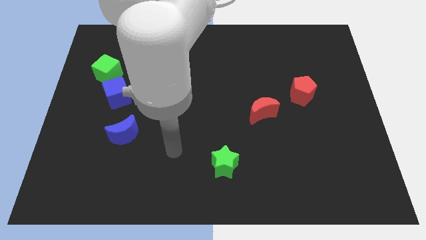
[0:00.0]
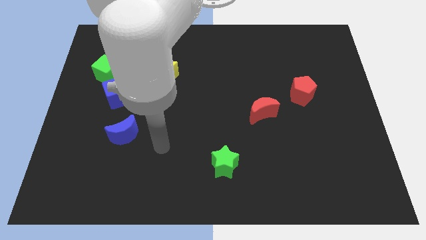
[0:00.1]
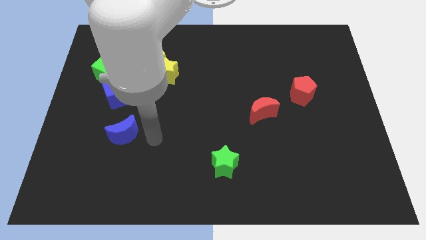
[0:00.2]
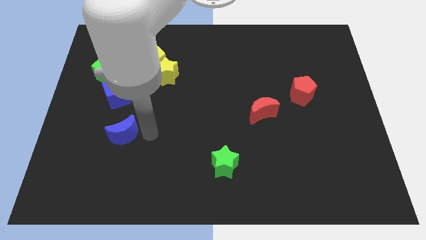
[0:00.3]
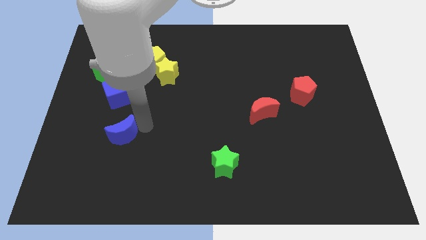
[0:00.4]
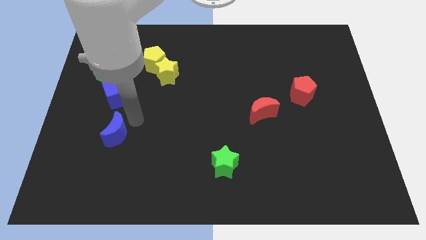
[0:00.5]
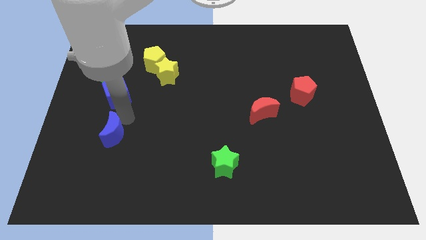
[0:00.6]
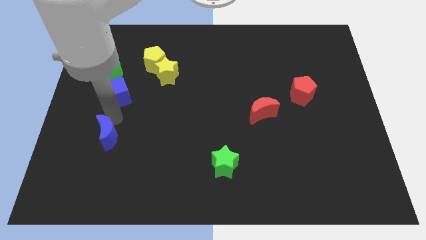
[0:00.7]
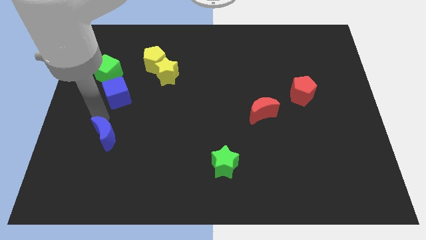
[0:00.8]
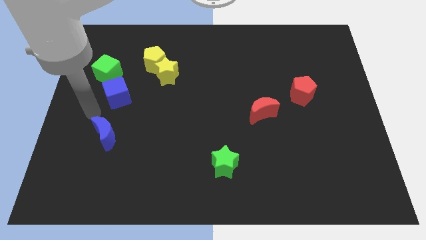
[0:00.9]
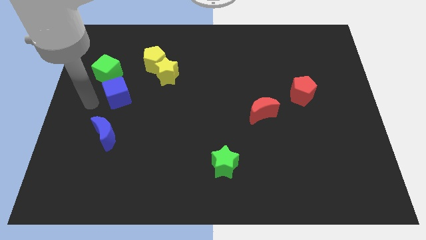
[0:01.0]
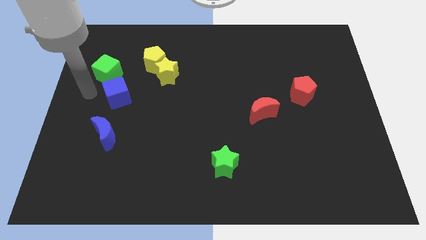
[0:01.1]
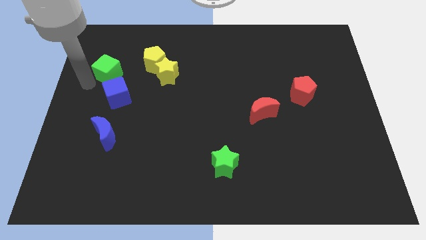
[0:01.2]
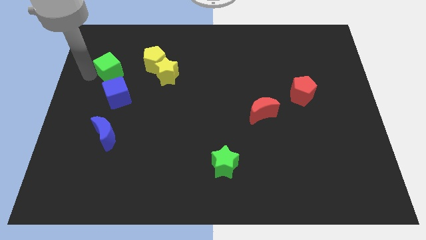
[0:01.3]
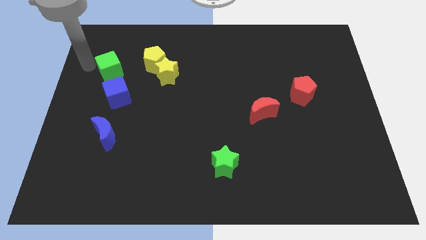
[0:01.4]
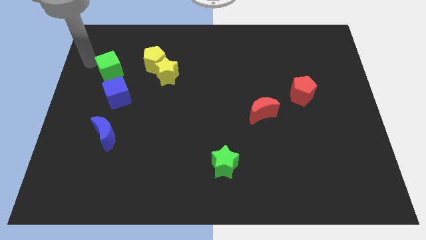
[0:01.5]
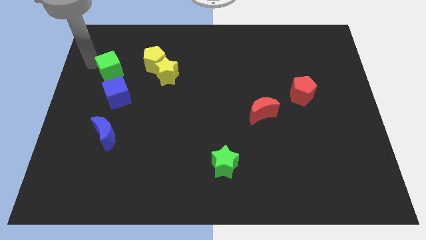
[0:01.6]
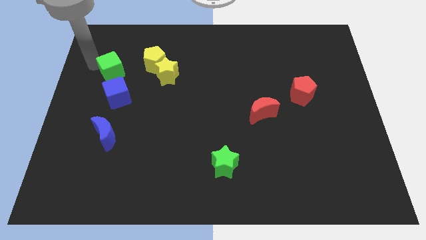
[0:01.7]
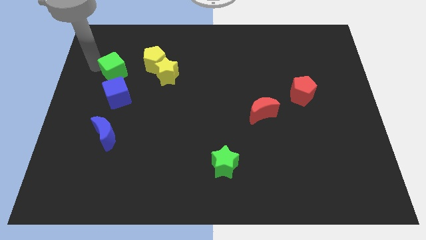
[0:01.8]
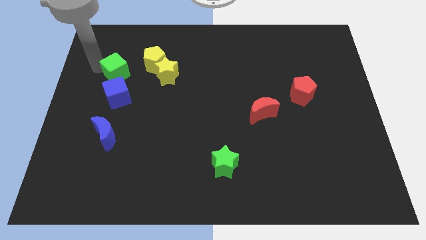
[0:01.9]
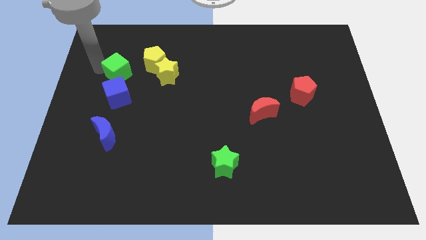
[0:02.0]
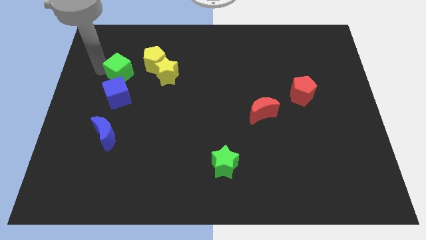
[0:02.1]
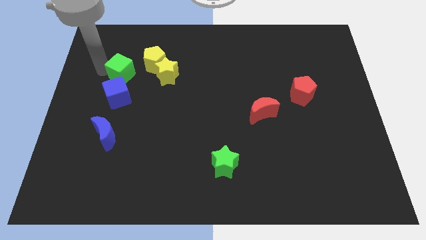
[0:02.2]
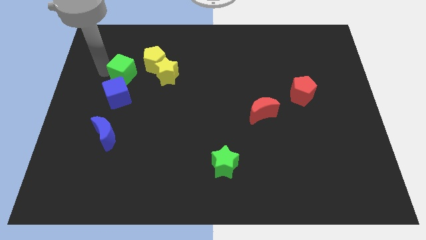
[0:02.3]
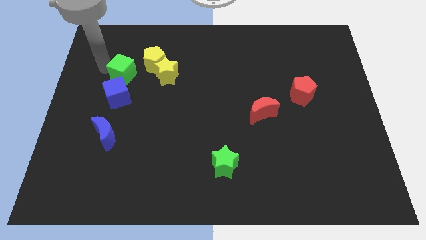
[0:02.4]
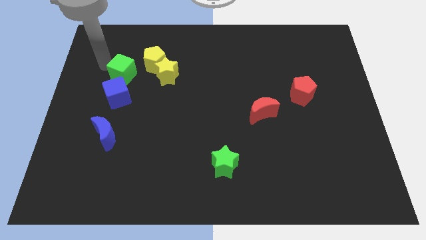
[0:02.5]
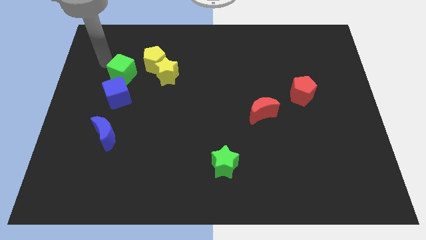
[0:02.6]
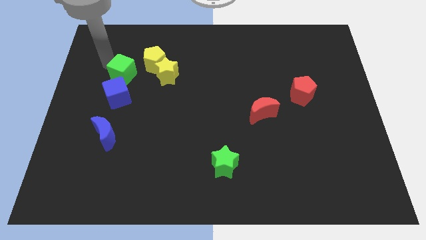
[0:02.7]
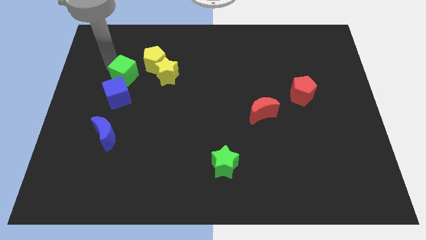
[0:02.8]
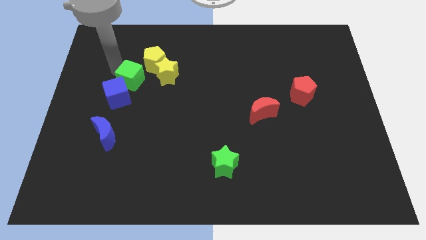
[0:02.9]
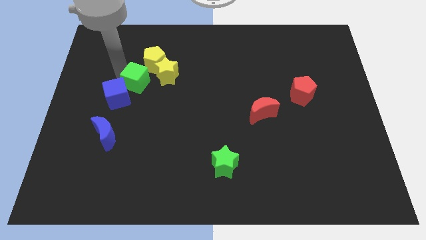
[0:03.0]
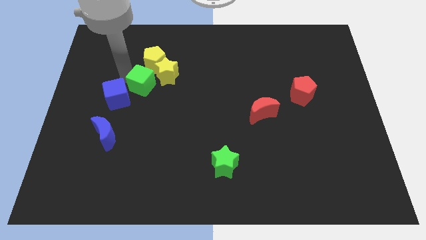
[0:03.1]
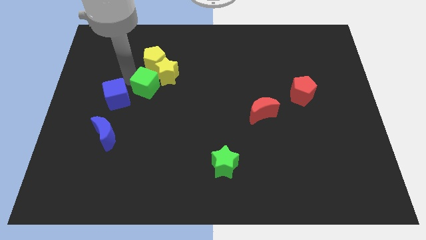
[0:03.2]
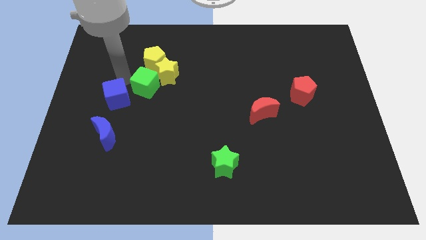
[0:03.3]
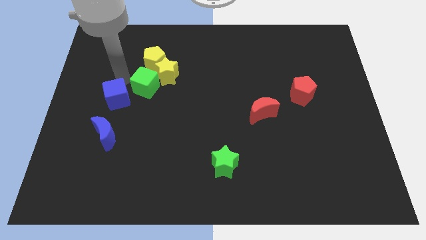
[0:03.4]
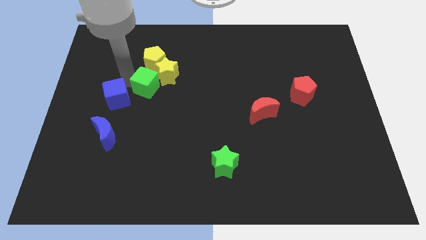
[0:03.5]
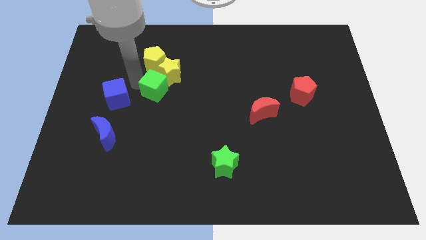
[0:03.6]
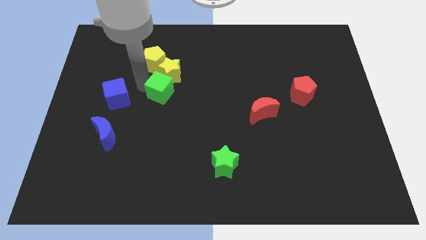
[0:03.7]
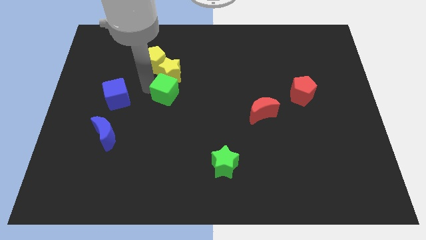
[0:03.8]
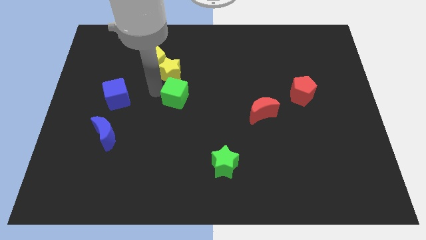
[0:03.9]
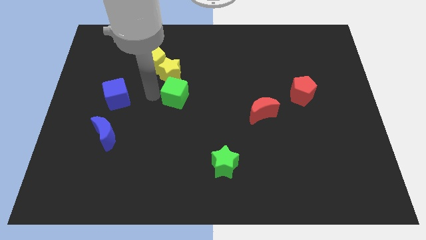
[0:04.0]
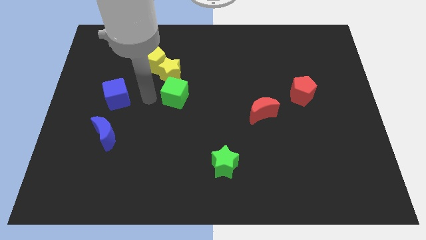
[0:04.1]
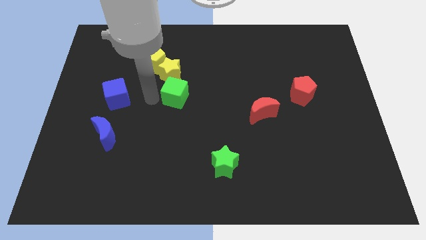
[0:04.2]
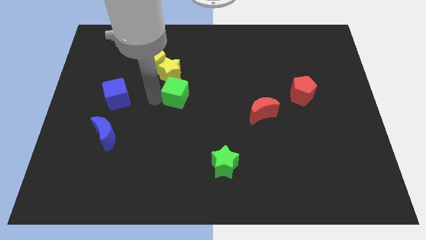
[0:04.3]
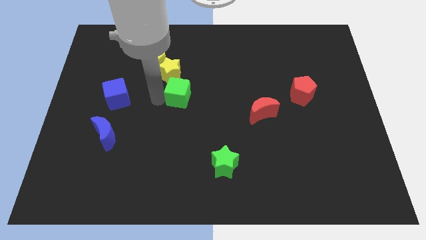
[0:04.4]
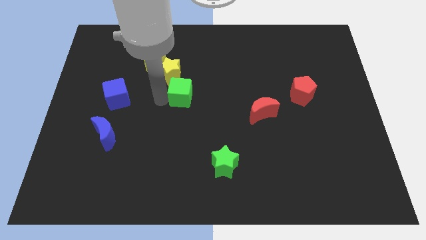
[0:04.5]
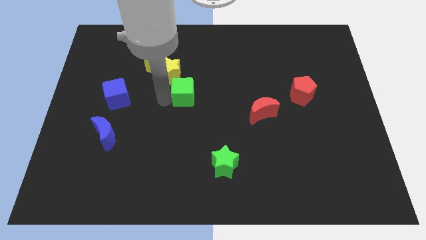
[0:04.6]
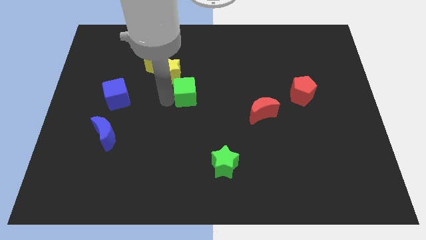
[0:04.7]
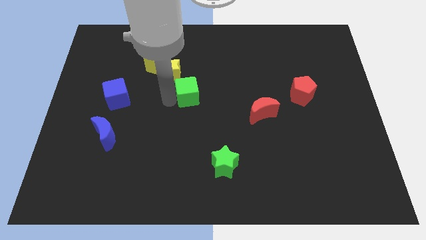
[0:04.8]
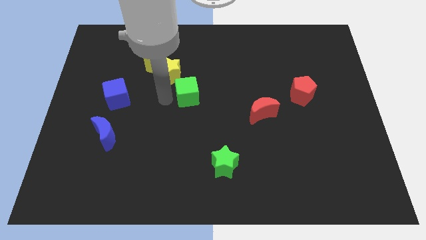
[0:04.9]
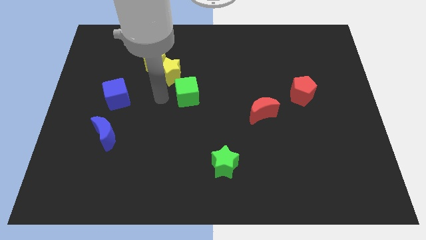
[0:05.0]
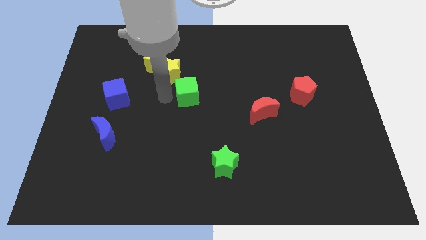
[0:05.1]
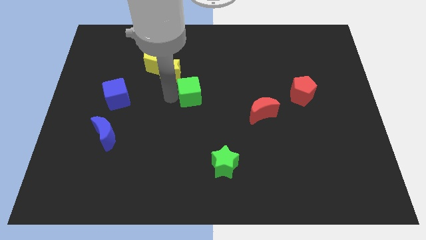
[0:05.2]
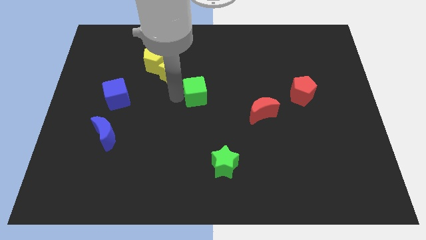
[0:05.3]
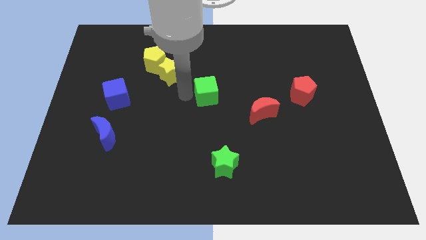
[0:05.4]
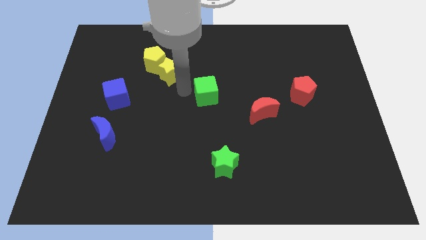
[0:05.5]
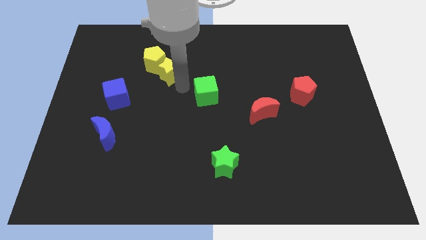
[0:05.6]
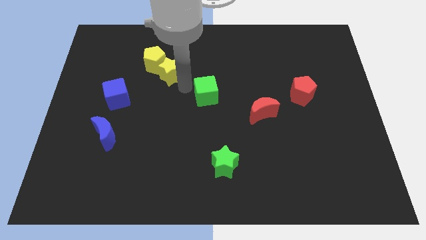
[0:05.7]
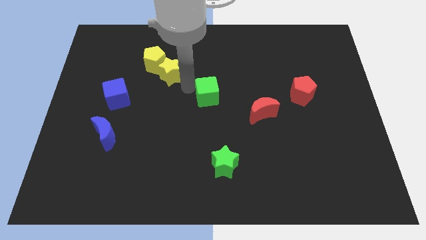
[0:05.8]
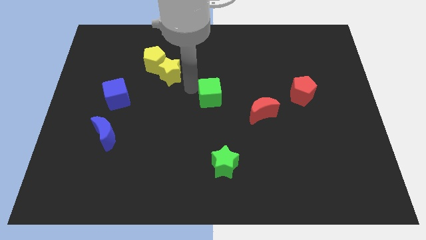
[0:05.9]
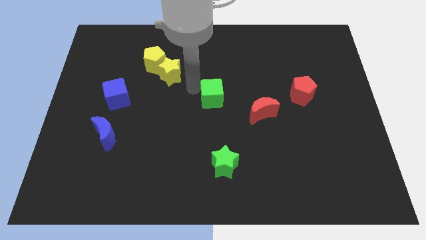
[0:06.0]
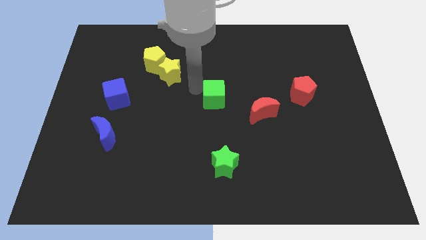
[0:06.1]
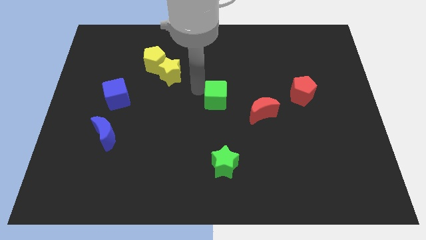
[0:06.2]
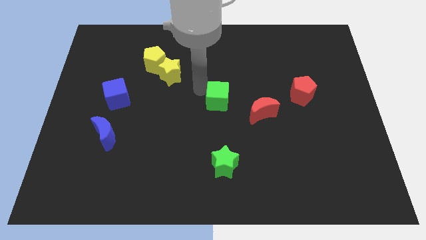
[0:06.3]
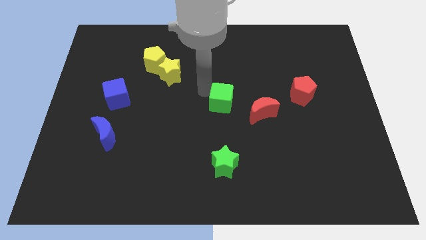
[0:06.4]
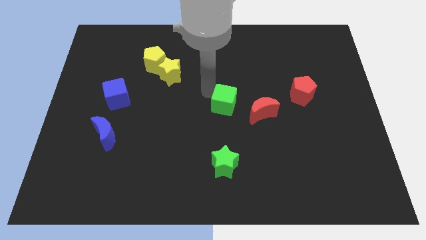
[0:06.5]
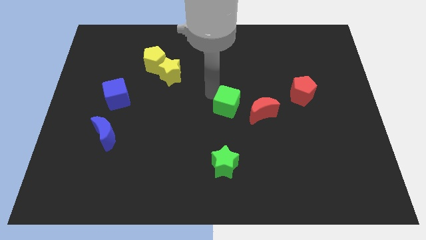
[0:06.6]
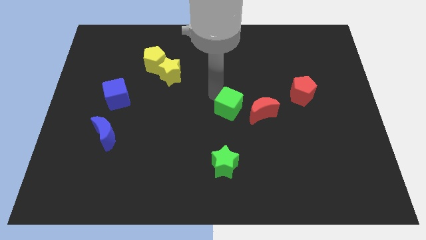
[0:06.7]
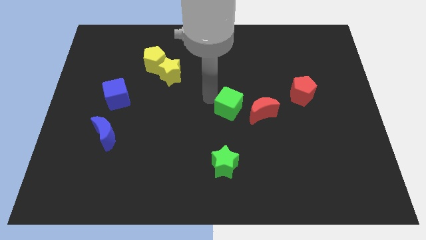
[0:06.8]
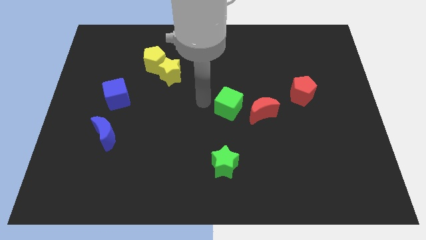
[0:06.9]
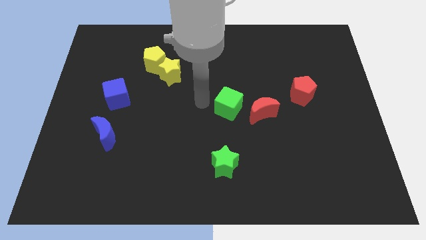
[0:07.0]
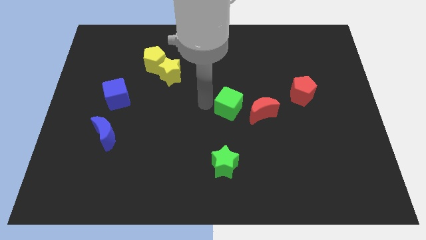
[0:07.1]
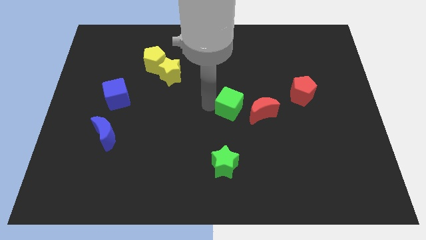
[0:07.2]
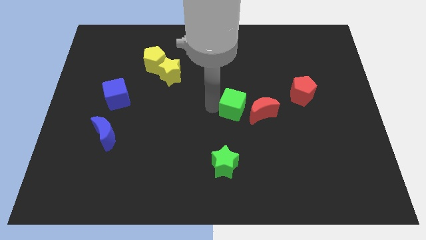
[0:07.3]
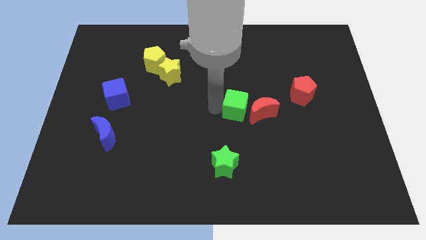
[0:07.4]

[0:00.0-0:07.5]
slide the green cube towards the red moon
